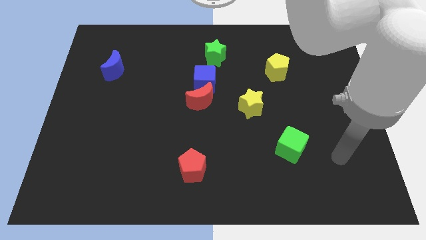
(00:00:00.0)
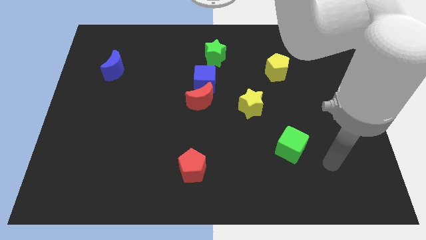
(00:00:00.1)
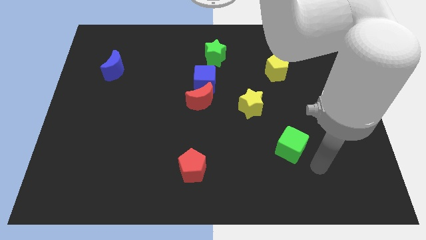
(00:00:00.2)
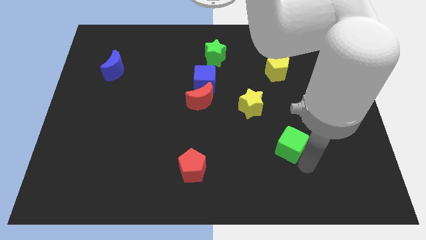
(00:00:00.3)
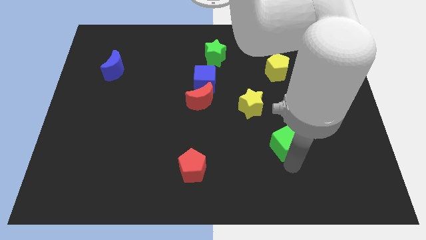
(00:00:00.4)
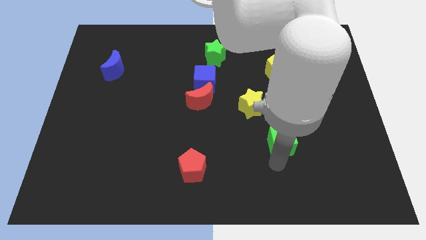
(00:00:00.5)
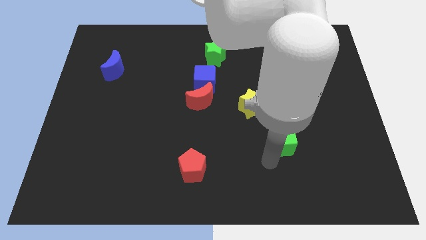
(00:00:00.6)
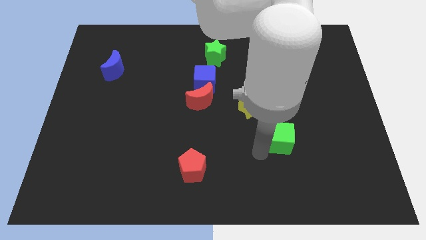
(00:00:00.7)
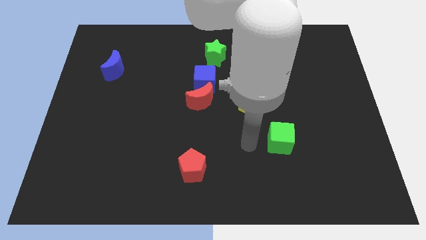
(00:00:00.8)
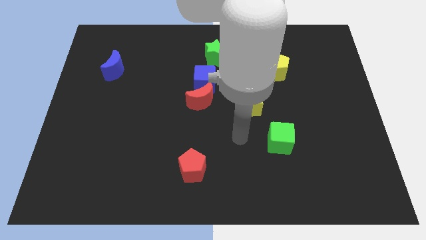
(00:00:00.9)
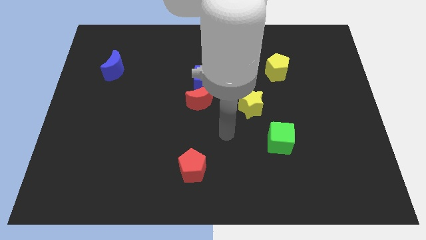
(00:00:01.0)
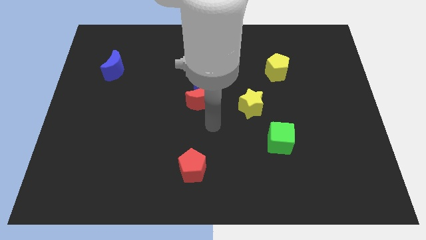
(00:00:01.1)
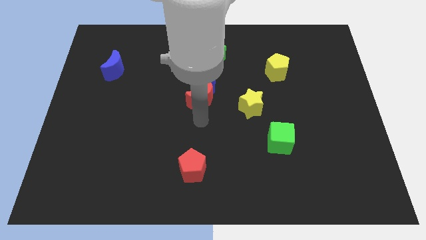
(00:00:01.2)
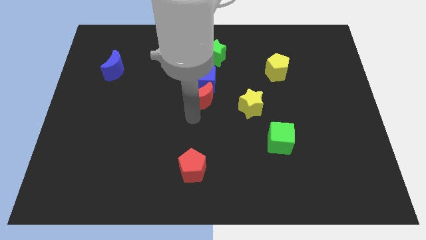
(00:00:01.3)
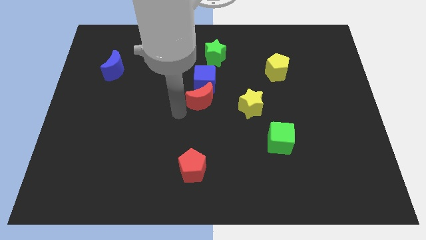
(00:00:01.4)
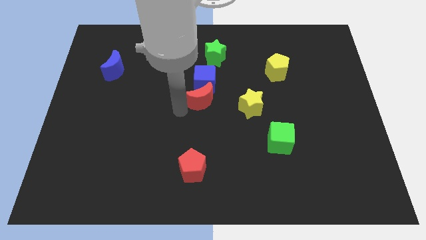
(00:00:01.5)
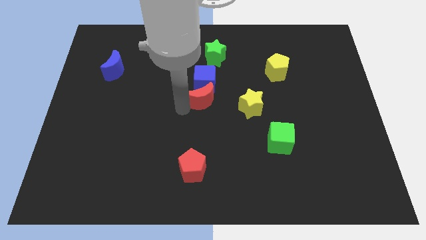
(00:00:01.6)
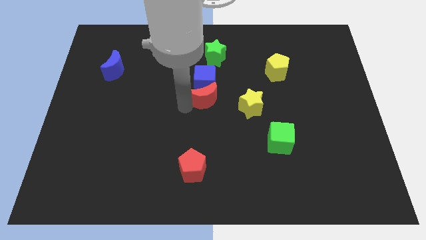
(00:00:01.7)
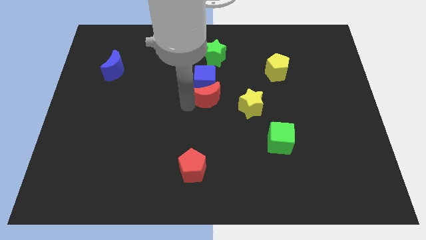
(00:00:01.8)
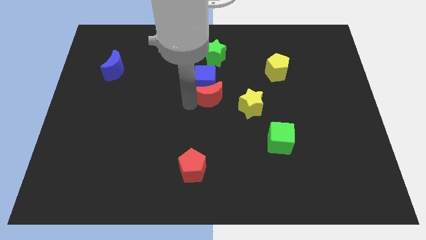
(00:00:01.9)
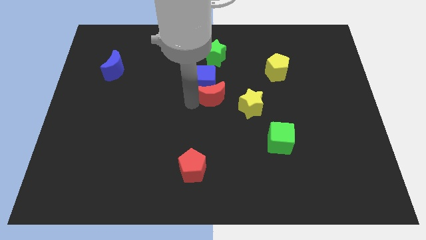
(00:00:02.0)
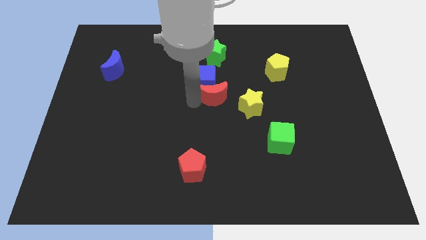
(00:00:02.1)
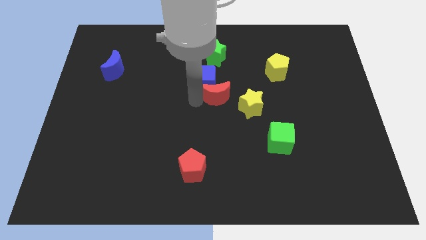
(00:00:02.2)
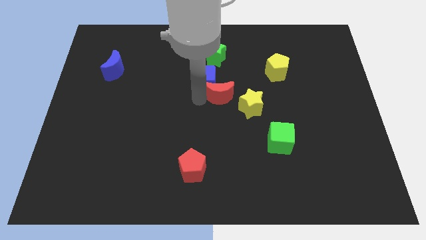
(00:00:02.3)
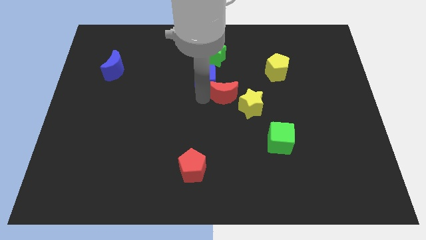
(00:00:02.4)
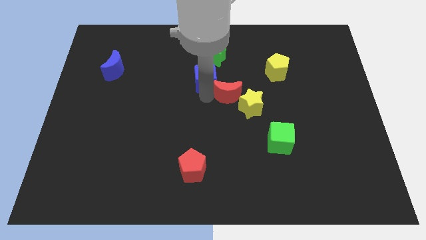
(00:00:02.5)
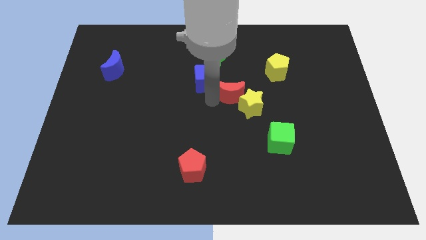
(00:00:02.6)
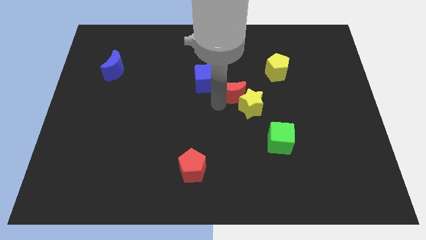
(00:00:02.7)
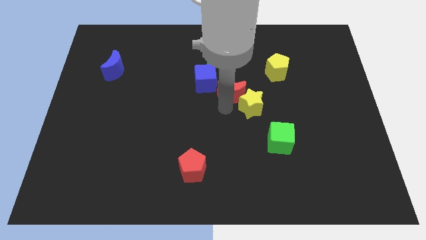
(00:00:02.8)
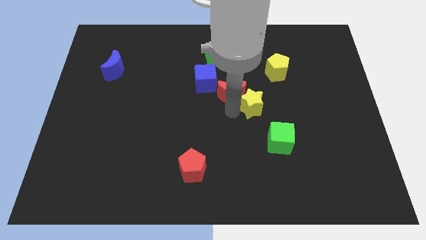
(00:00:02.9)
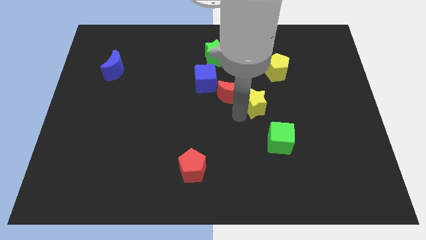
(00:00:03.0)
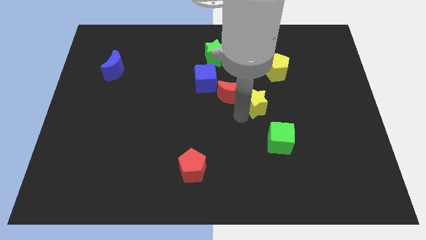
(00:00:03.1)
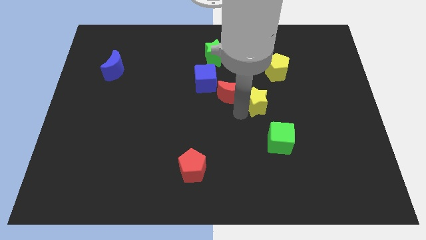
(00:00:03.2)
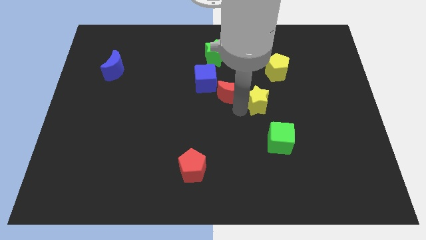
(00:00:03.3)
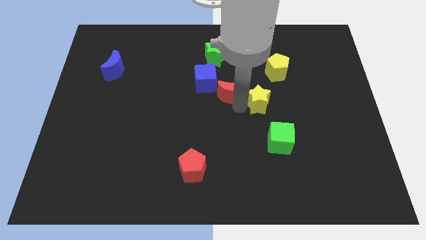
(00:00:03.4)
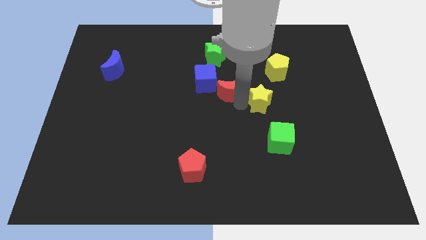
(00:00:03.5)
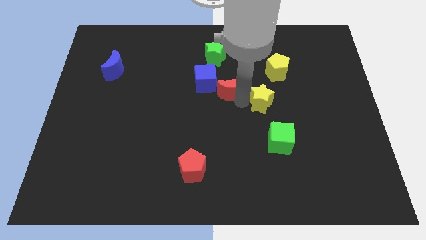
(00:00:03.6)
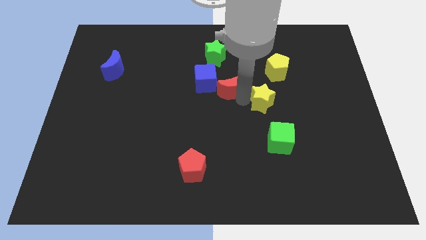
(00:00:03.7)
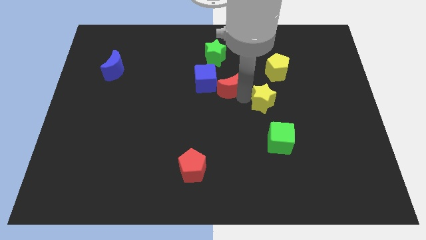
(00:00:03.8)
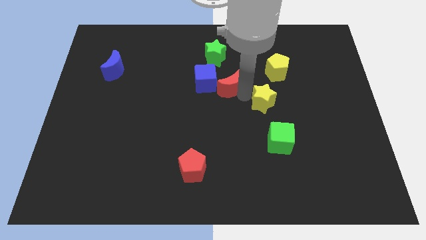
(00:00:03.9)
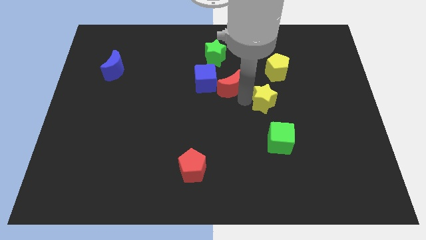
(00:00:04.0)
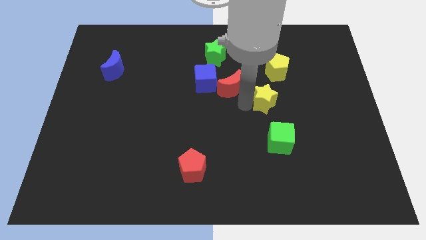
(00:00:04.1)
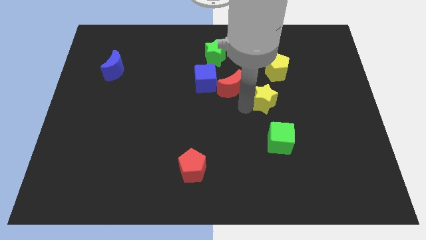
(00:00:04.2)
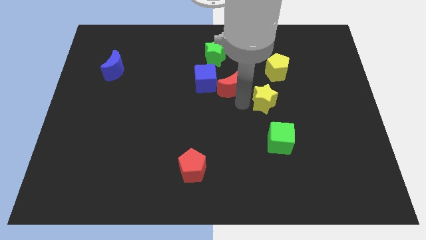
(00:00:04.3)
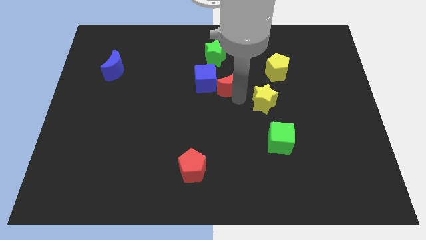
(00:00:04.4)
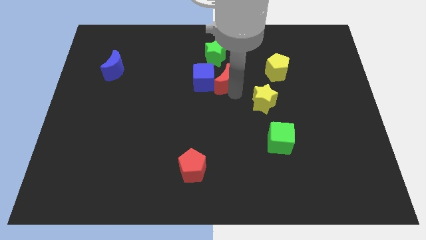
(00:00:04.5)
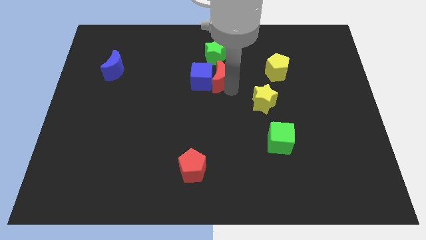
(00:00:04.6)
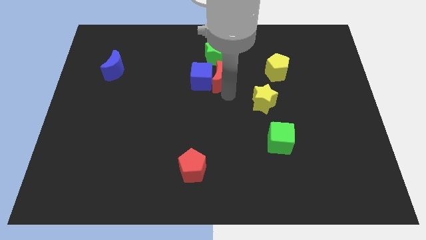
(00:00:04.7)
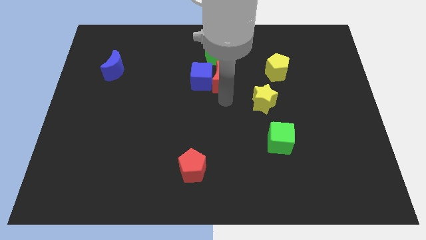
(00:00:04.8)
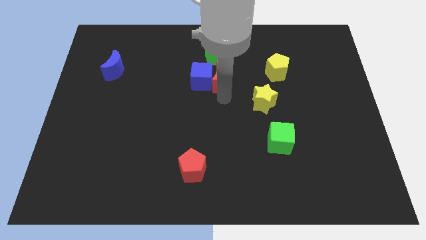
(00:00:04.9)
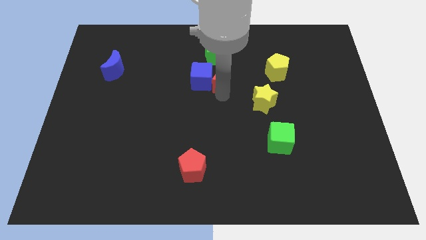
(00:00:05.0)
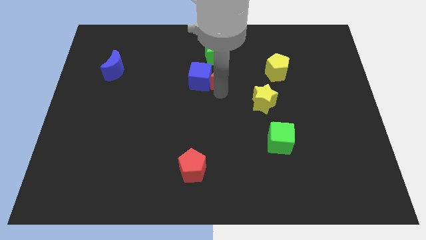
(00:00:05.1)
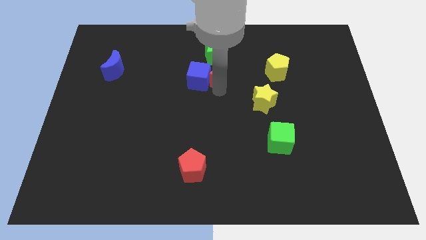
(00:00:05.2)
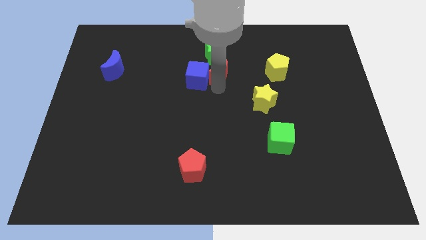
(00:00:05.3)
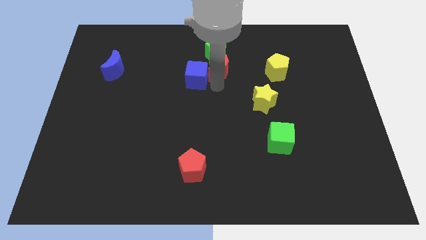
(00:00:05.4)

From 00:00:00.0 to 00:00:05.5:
slide the red moon to the green star

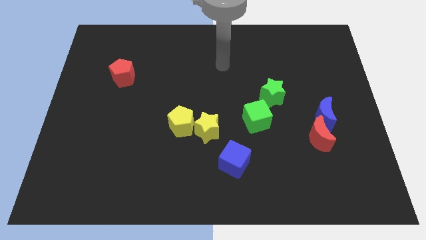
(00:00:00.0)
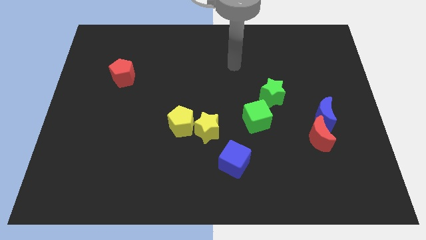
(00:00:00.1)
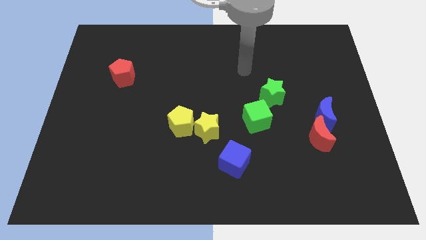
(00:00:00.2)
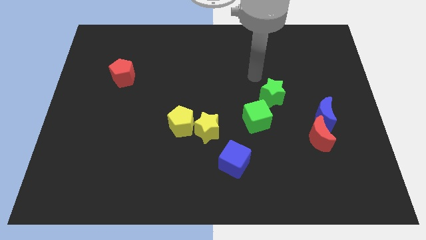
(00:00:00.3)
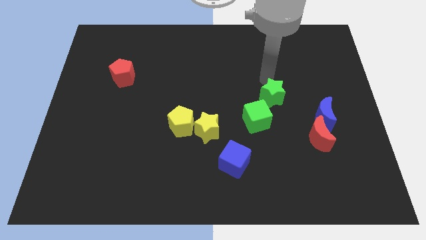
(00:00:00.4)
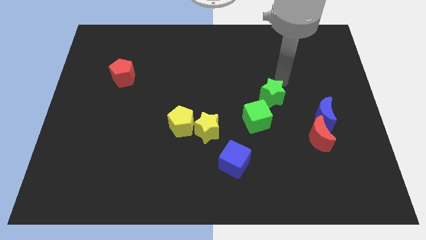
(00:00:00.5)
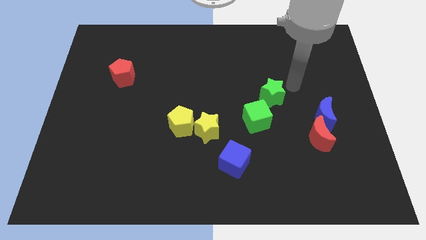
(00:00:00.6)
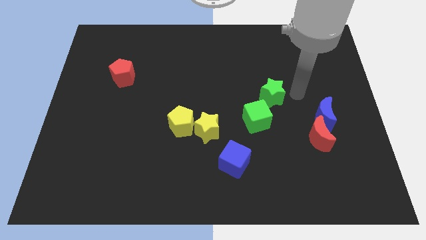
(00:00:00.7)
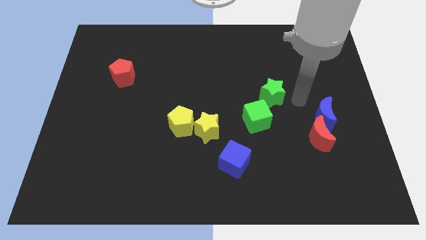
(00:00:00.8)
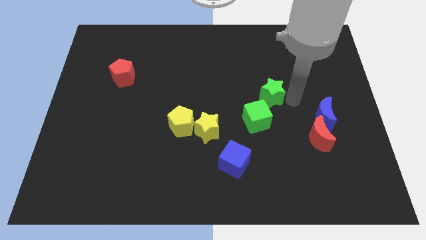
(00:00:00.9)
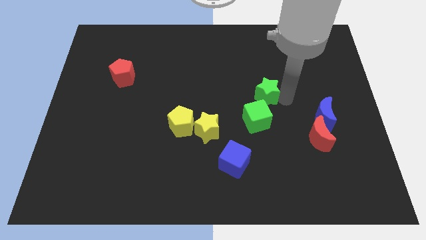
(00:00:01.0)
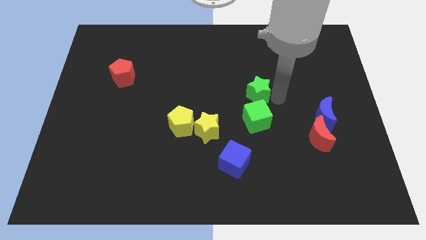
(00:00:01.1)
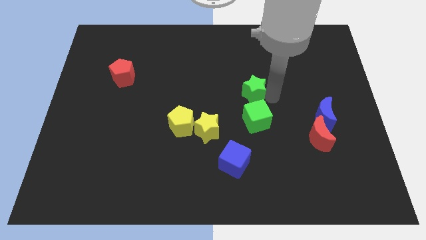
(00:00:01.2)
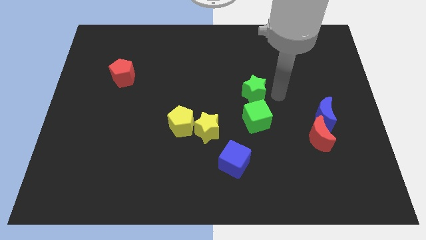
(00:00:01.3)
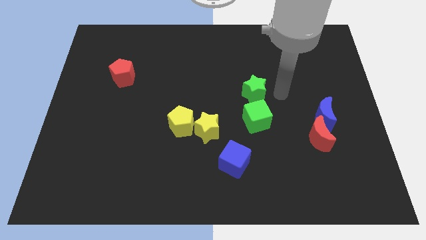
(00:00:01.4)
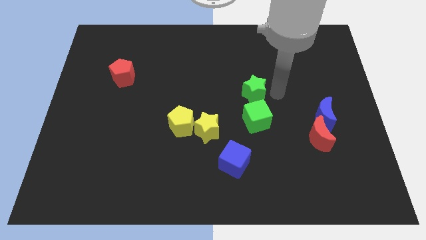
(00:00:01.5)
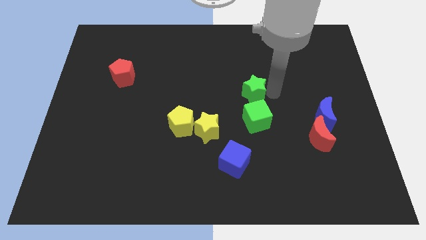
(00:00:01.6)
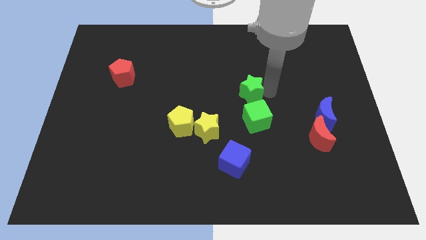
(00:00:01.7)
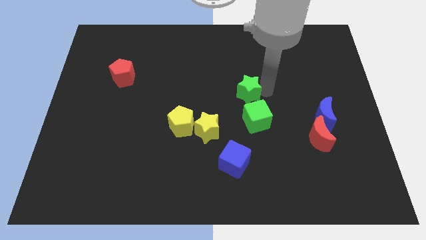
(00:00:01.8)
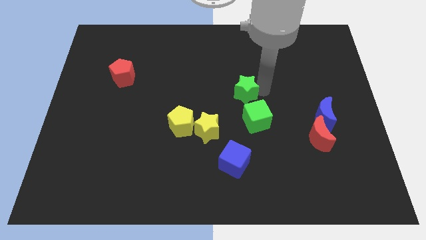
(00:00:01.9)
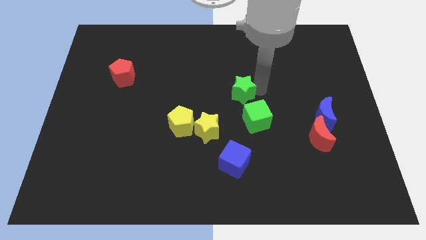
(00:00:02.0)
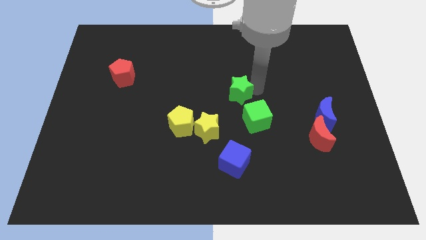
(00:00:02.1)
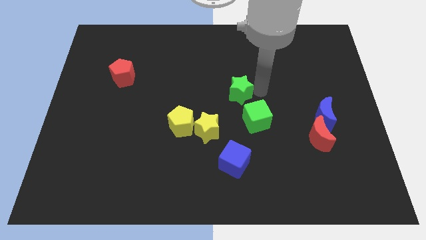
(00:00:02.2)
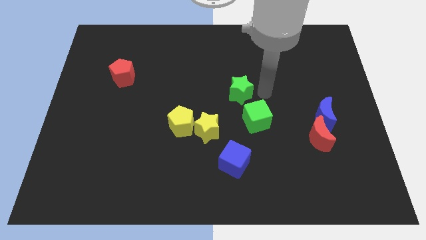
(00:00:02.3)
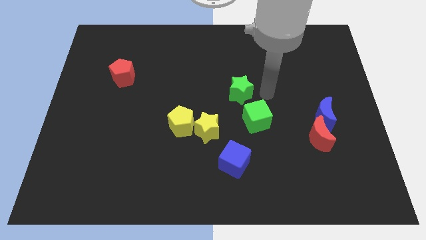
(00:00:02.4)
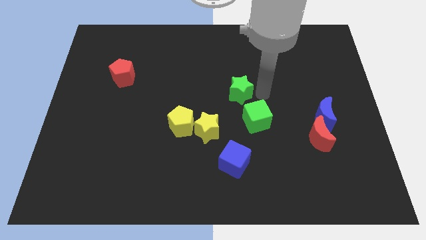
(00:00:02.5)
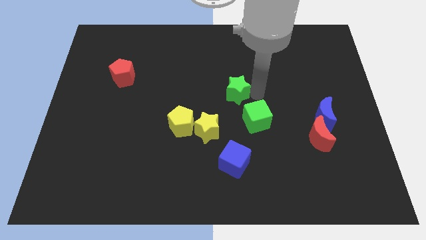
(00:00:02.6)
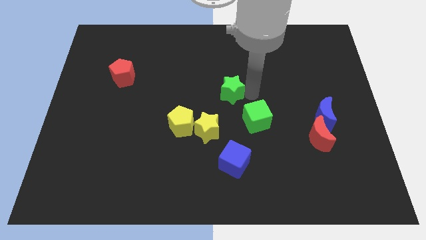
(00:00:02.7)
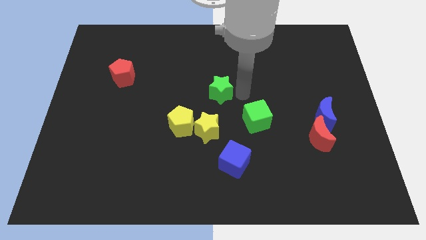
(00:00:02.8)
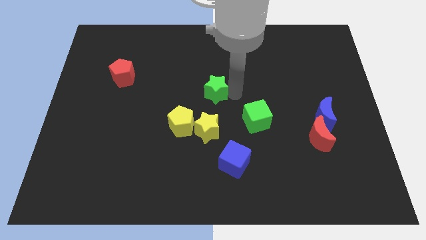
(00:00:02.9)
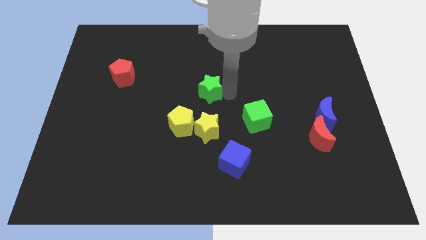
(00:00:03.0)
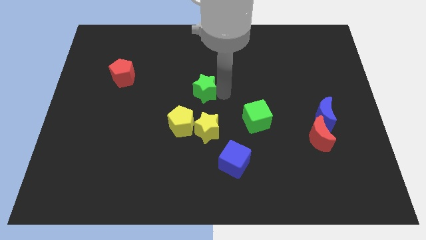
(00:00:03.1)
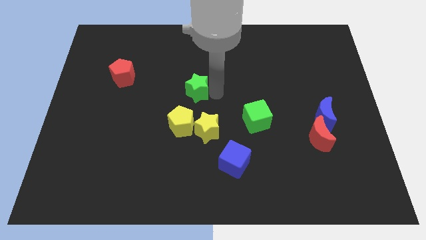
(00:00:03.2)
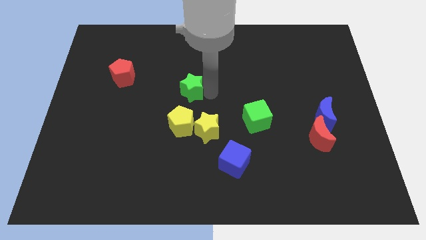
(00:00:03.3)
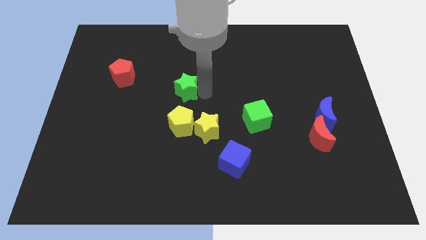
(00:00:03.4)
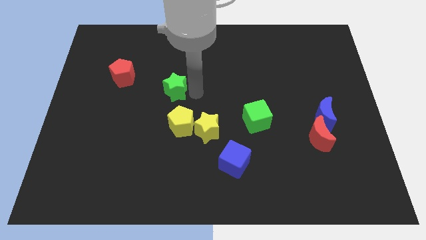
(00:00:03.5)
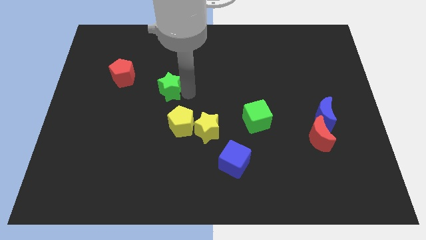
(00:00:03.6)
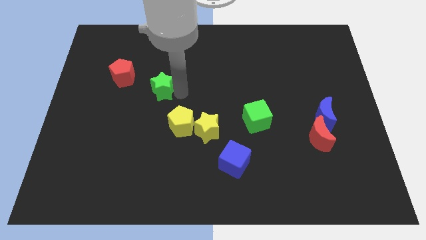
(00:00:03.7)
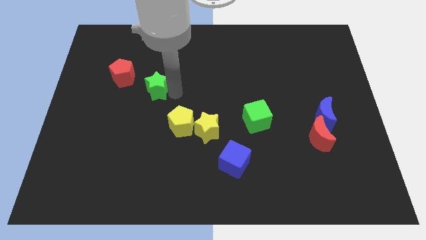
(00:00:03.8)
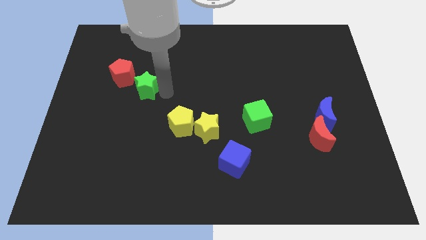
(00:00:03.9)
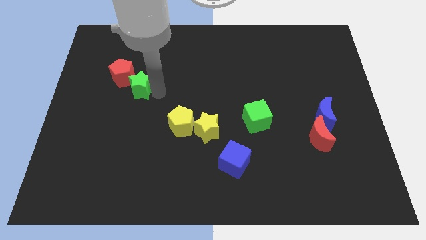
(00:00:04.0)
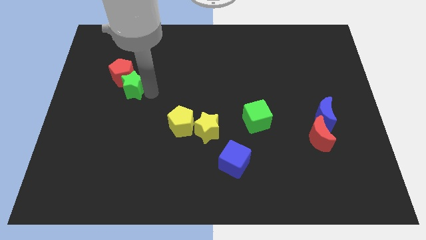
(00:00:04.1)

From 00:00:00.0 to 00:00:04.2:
slide the green star towards the red pentagon
